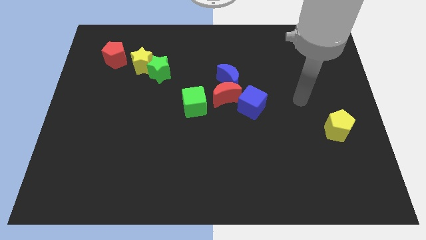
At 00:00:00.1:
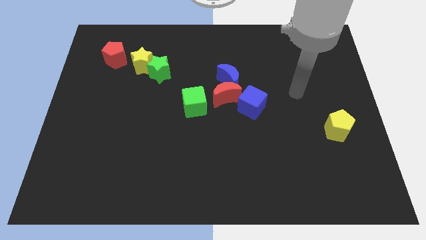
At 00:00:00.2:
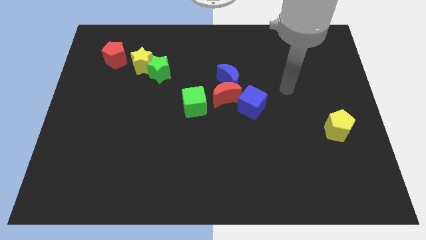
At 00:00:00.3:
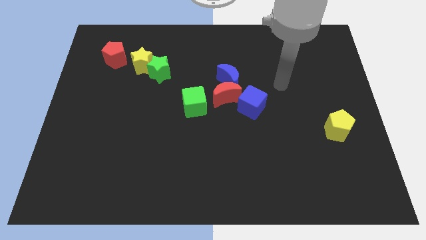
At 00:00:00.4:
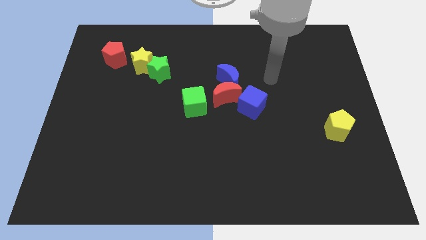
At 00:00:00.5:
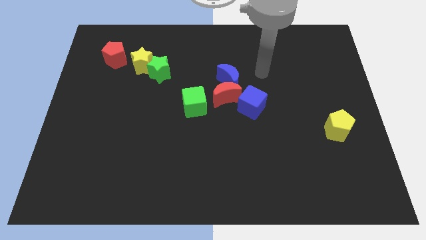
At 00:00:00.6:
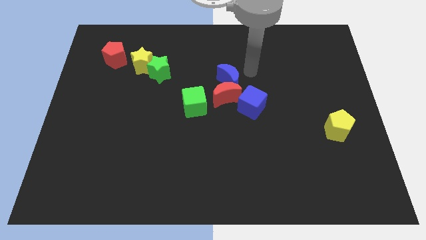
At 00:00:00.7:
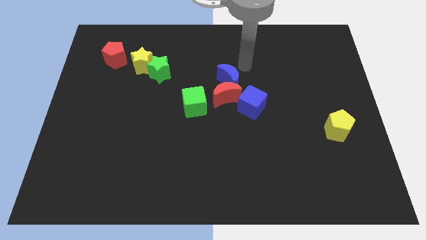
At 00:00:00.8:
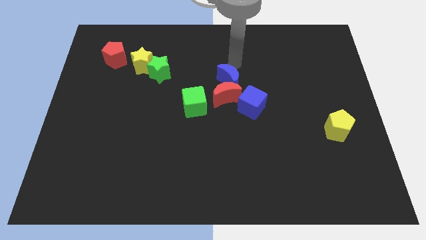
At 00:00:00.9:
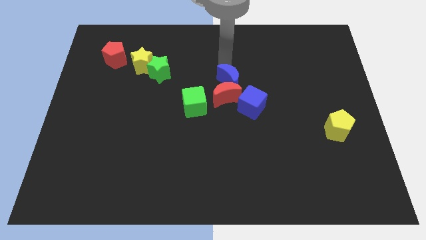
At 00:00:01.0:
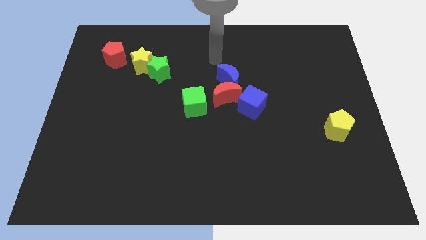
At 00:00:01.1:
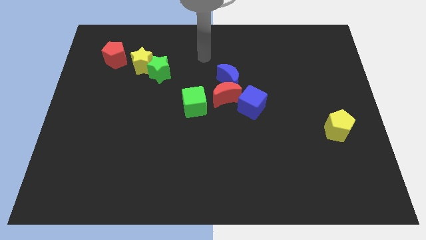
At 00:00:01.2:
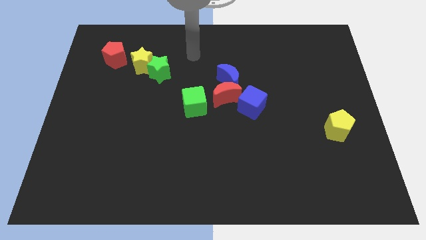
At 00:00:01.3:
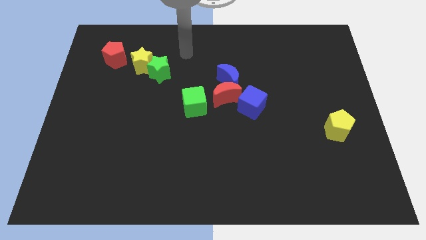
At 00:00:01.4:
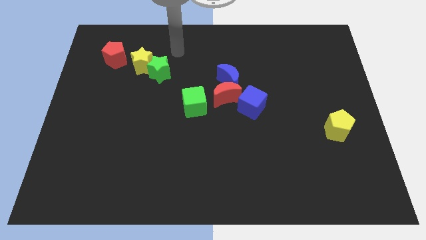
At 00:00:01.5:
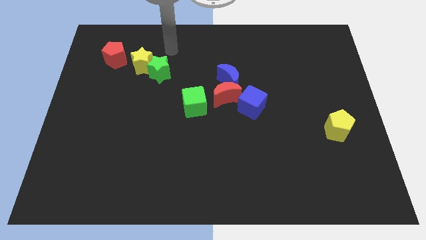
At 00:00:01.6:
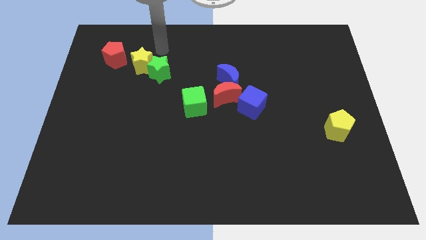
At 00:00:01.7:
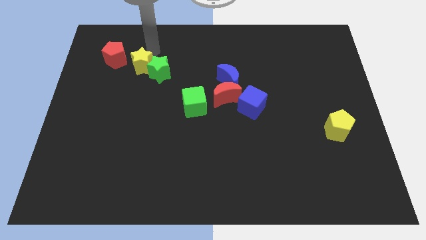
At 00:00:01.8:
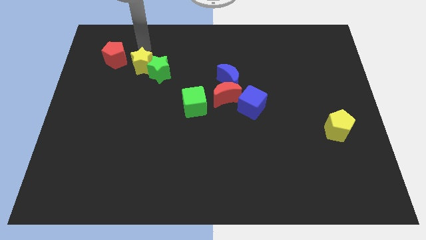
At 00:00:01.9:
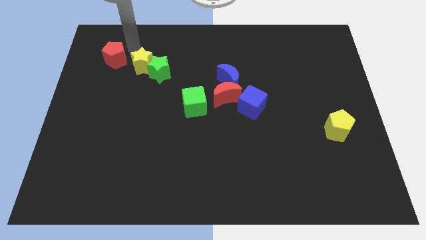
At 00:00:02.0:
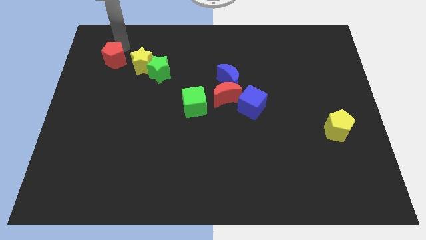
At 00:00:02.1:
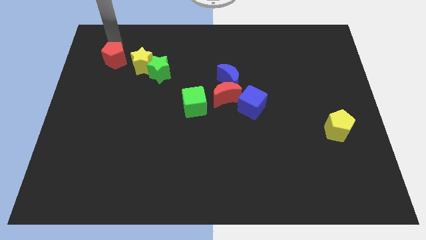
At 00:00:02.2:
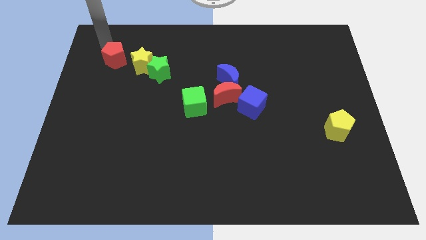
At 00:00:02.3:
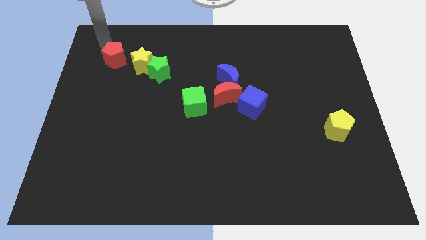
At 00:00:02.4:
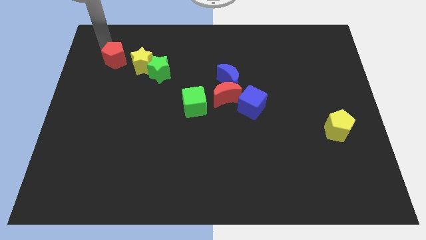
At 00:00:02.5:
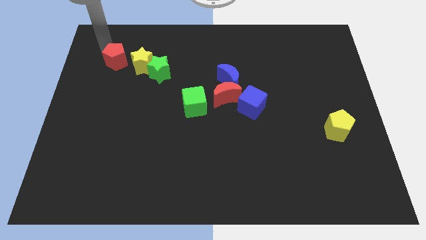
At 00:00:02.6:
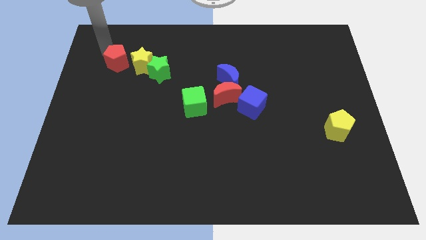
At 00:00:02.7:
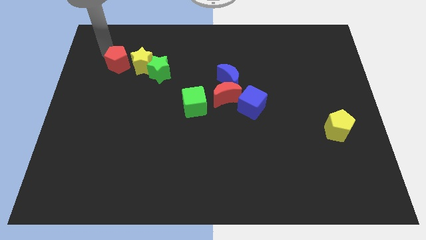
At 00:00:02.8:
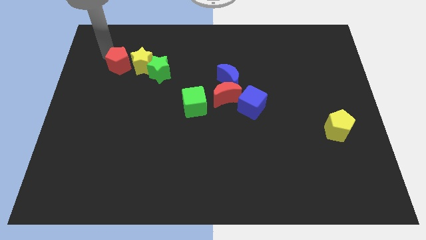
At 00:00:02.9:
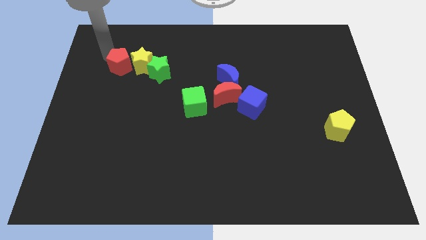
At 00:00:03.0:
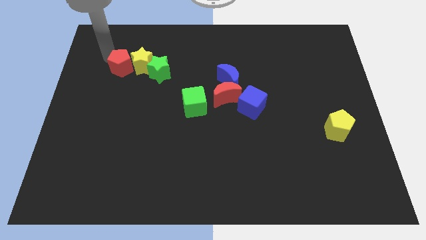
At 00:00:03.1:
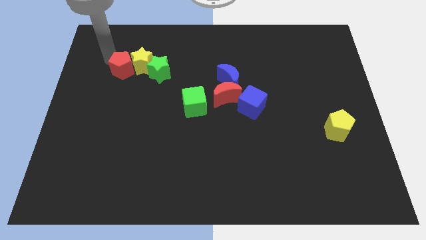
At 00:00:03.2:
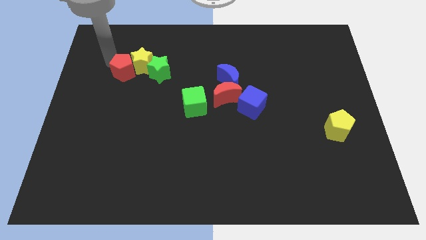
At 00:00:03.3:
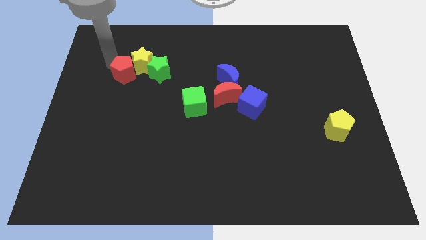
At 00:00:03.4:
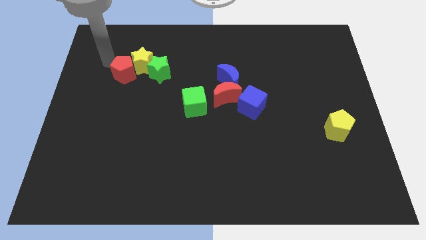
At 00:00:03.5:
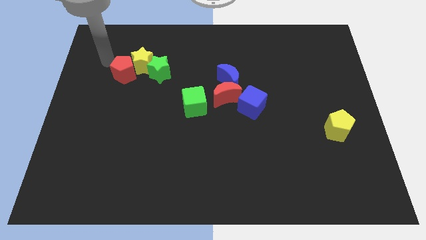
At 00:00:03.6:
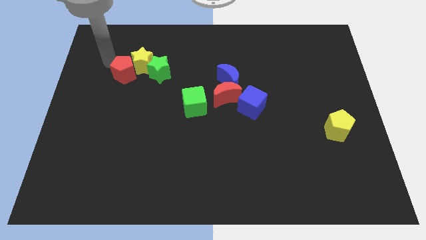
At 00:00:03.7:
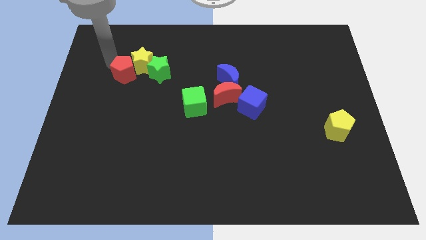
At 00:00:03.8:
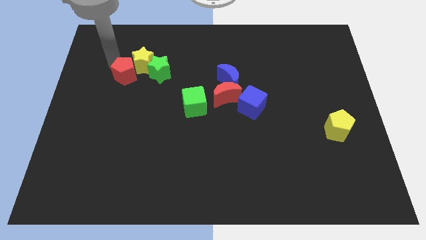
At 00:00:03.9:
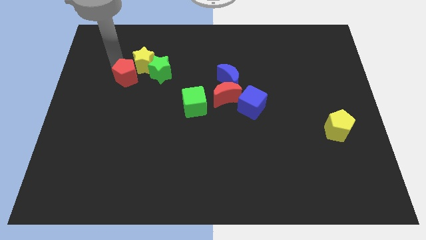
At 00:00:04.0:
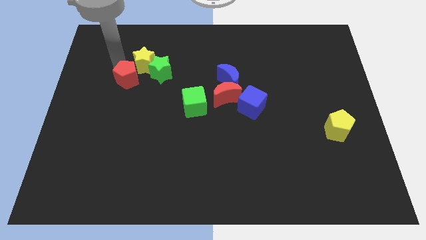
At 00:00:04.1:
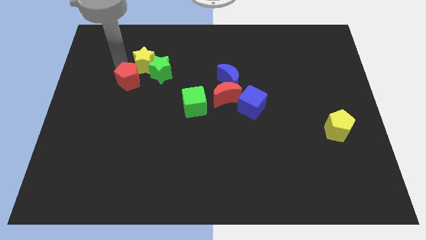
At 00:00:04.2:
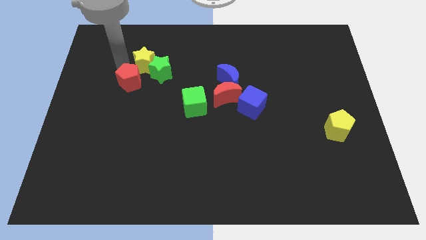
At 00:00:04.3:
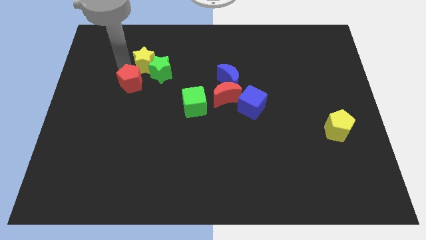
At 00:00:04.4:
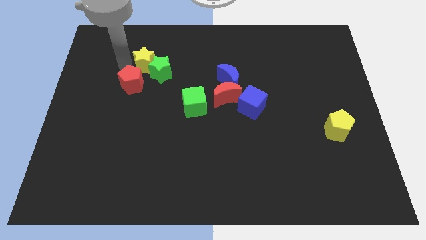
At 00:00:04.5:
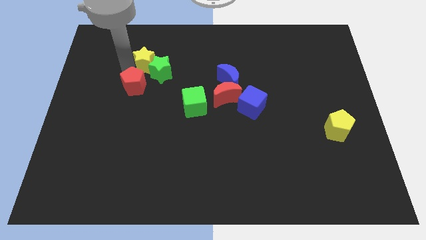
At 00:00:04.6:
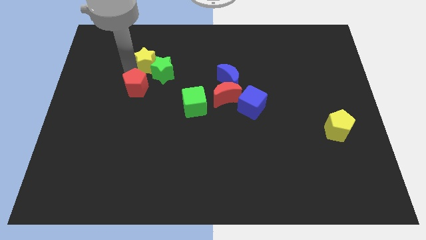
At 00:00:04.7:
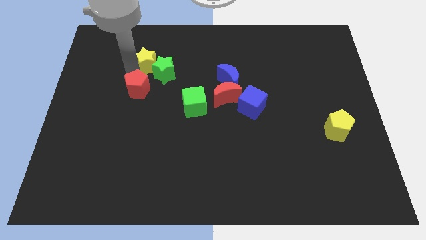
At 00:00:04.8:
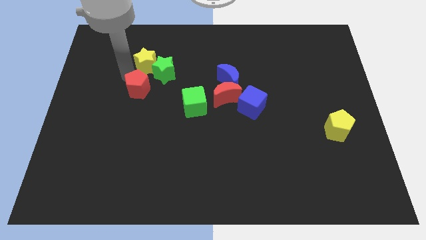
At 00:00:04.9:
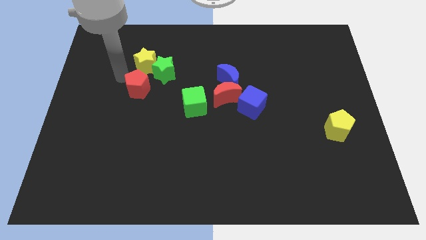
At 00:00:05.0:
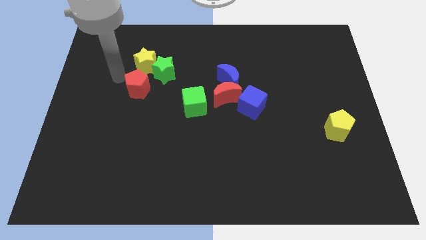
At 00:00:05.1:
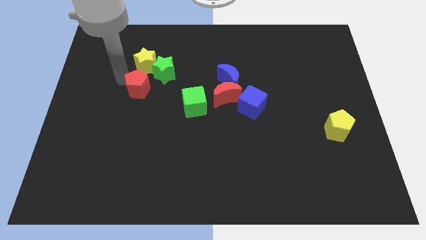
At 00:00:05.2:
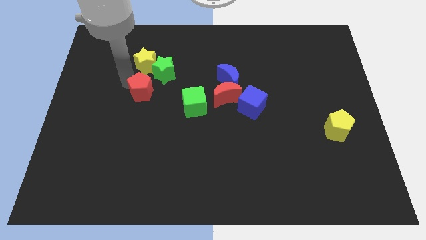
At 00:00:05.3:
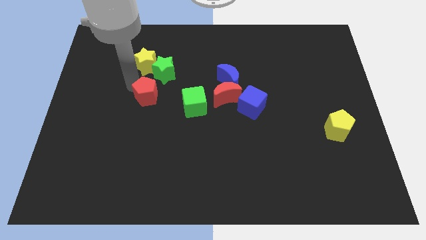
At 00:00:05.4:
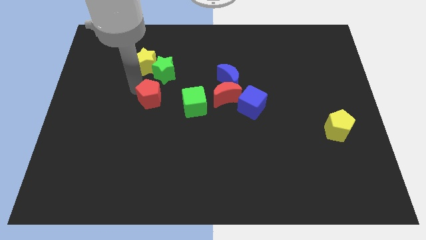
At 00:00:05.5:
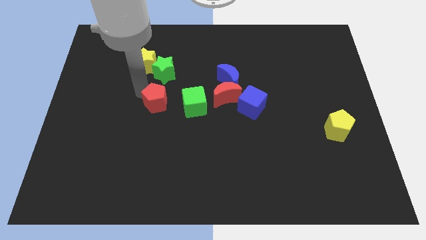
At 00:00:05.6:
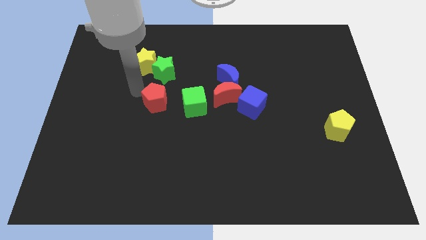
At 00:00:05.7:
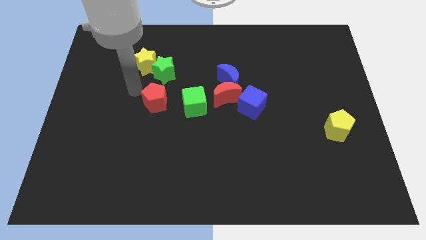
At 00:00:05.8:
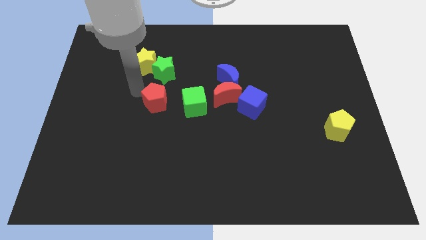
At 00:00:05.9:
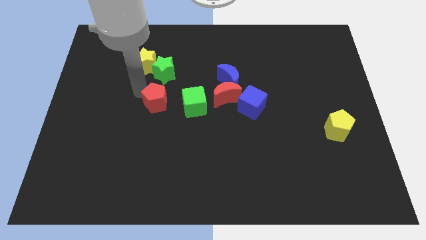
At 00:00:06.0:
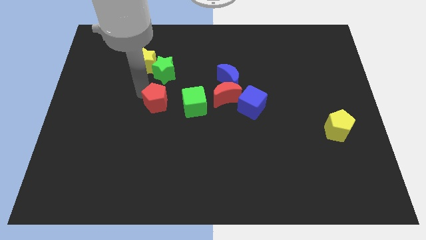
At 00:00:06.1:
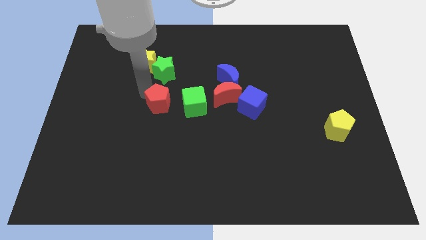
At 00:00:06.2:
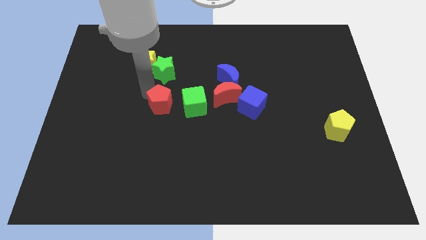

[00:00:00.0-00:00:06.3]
push the red pentagon diagonally downwards and right

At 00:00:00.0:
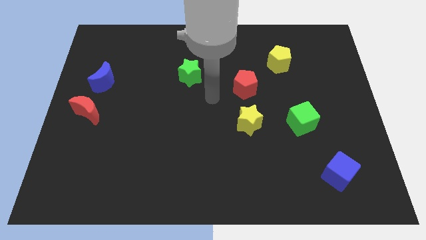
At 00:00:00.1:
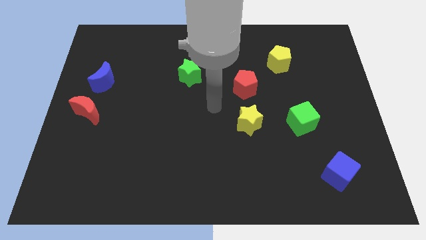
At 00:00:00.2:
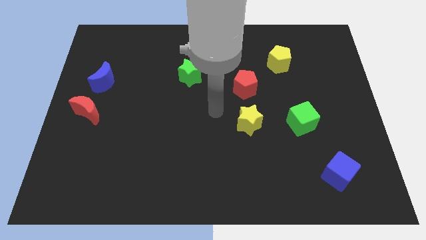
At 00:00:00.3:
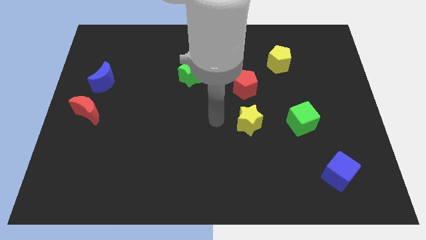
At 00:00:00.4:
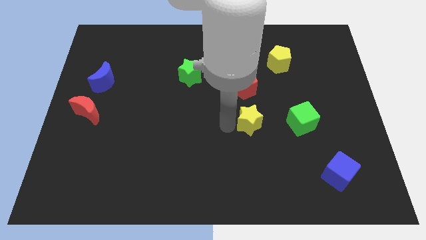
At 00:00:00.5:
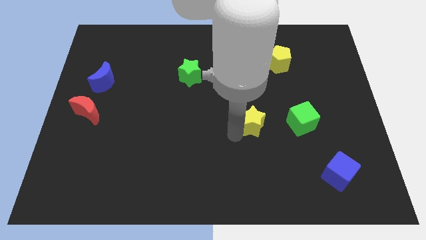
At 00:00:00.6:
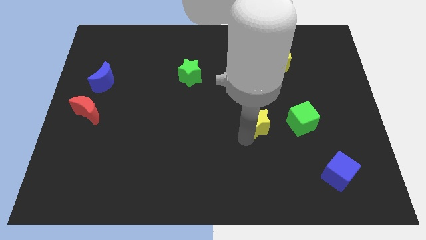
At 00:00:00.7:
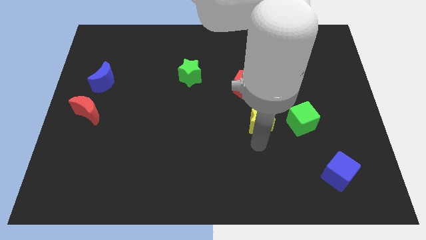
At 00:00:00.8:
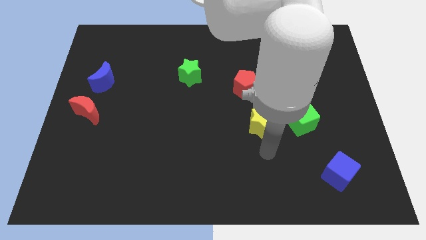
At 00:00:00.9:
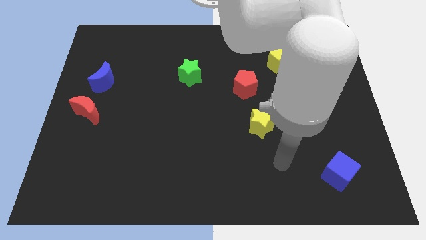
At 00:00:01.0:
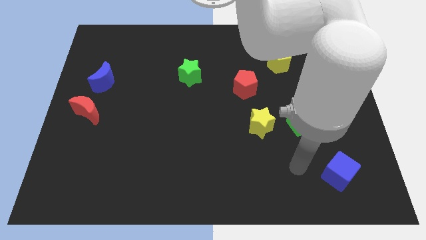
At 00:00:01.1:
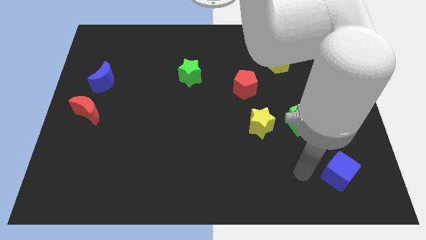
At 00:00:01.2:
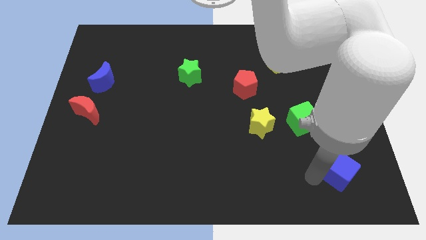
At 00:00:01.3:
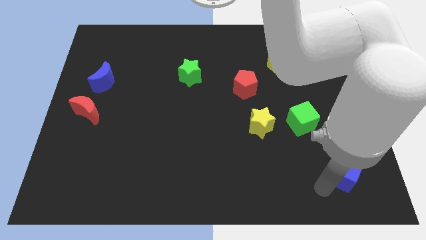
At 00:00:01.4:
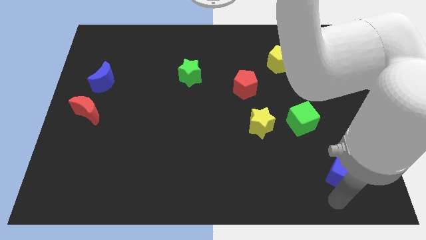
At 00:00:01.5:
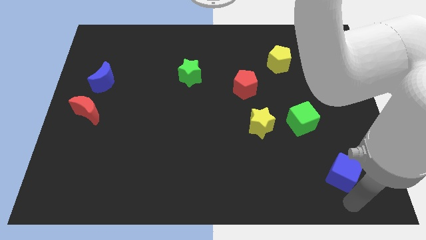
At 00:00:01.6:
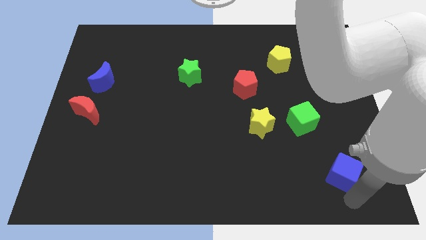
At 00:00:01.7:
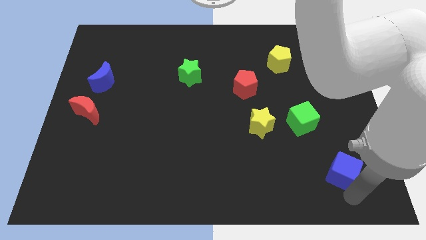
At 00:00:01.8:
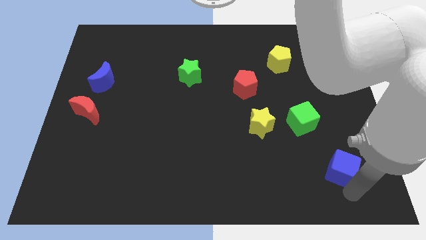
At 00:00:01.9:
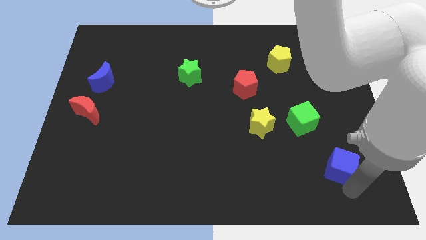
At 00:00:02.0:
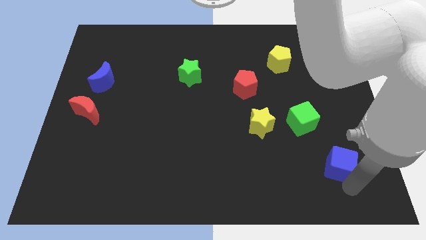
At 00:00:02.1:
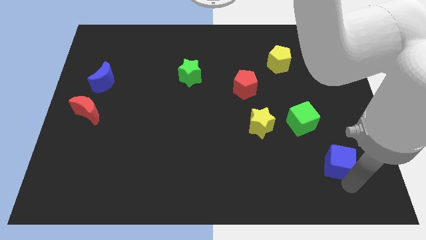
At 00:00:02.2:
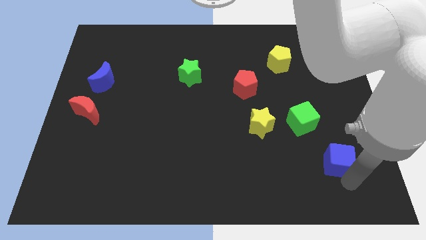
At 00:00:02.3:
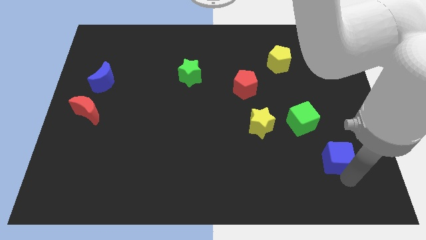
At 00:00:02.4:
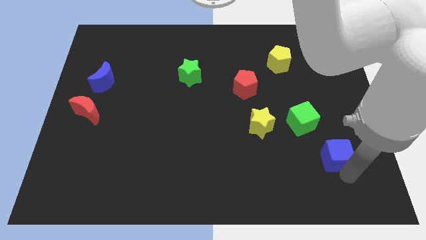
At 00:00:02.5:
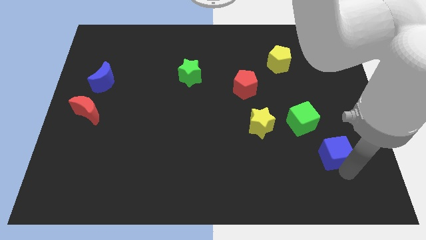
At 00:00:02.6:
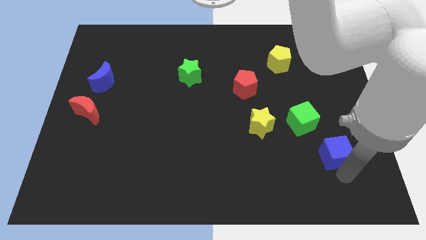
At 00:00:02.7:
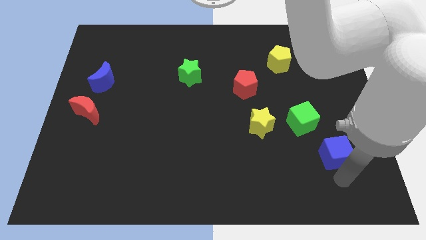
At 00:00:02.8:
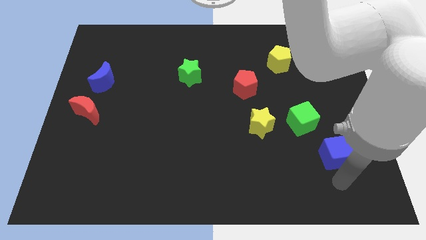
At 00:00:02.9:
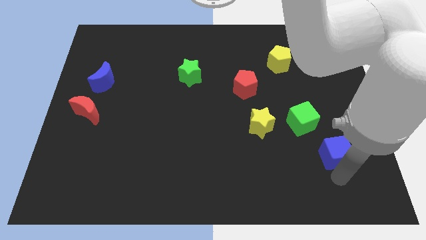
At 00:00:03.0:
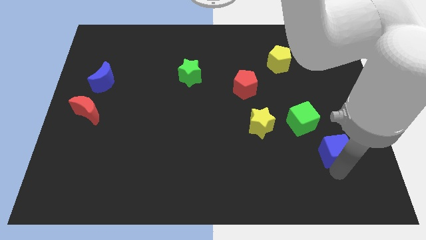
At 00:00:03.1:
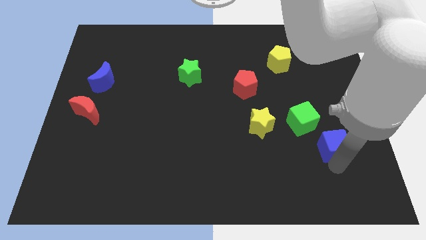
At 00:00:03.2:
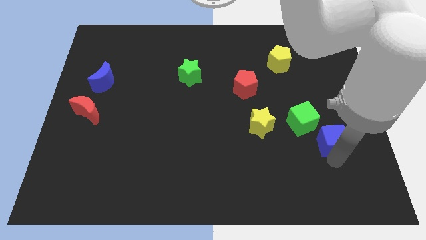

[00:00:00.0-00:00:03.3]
push the blue cube a bit up
